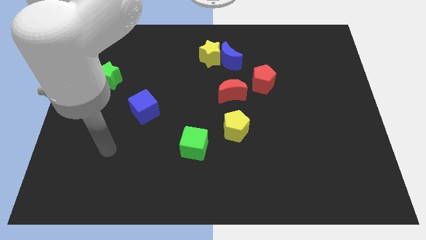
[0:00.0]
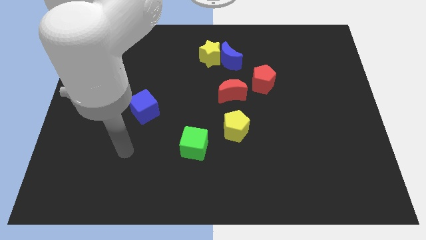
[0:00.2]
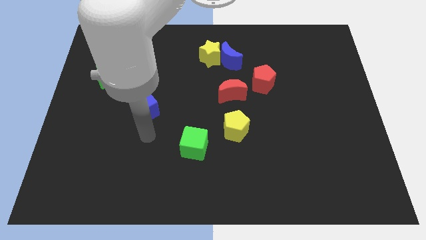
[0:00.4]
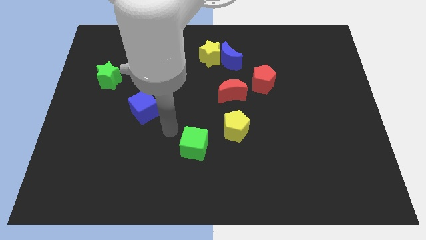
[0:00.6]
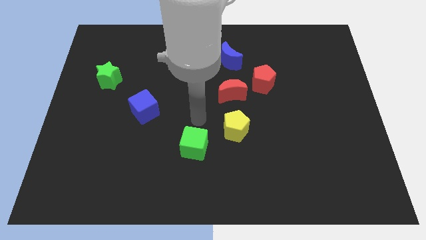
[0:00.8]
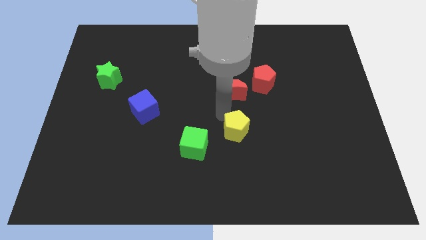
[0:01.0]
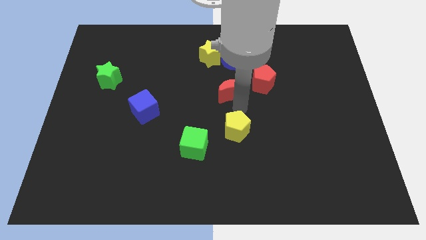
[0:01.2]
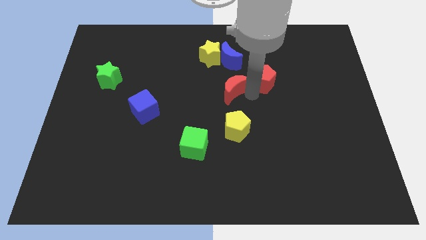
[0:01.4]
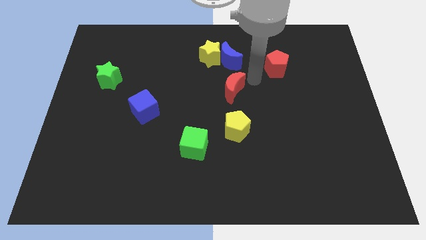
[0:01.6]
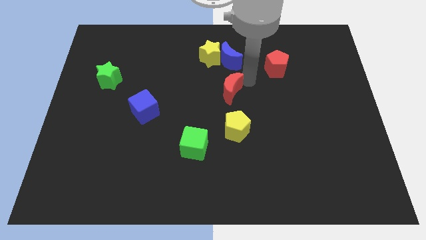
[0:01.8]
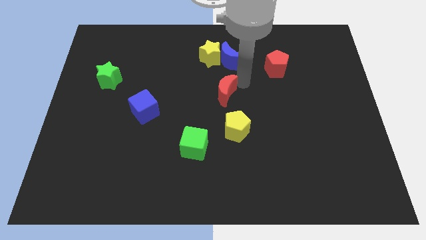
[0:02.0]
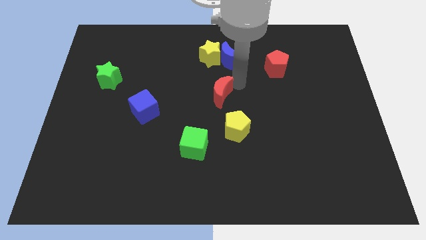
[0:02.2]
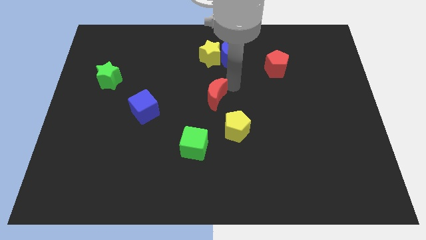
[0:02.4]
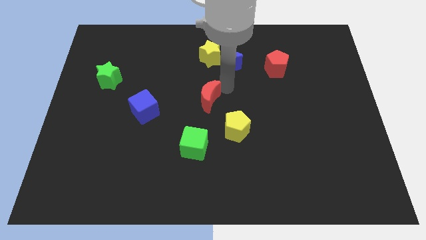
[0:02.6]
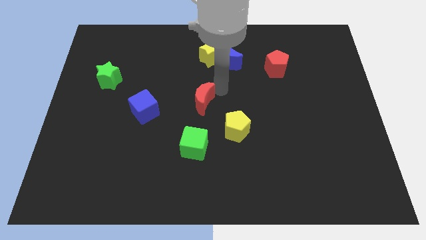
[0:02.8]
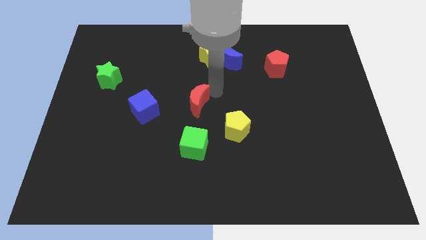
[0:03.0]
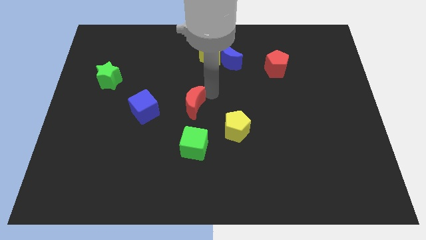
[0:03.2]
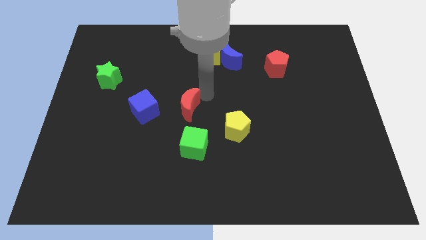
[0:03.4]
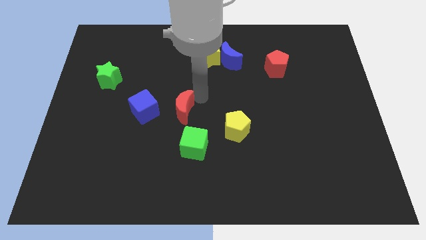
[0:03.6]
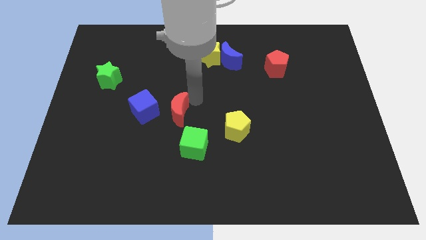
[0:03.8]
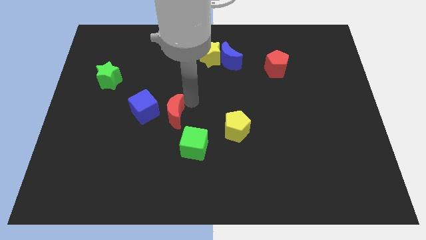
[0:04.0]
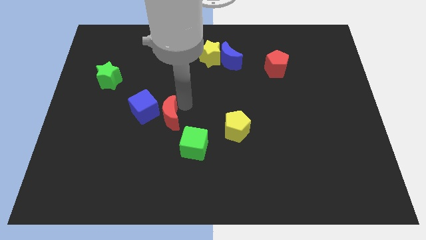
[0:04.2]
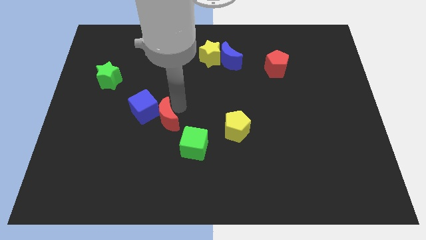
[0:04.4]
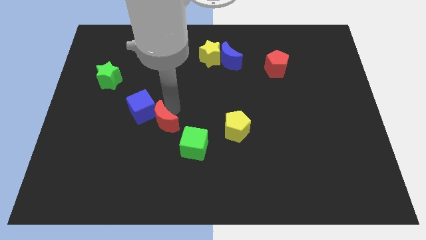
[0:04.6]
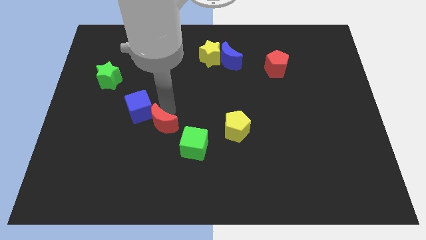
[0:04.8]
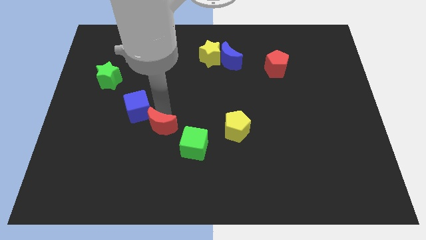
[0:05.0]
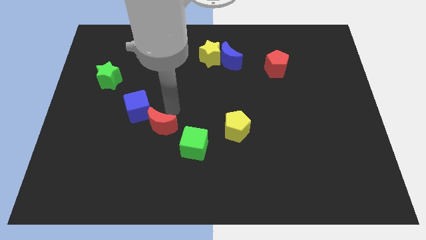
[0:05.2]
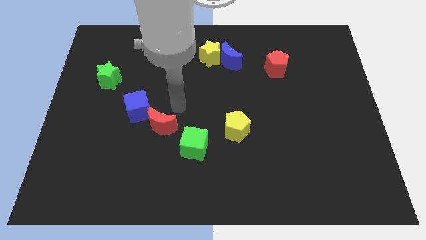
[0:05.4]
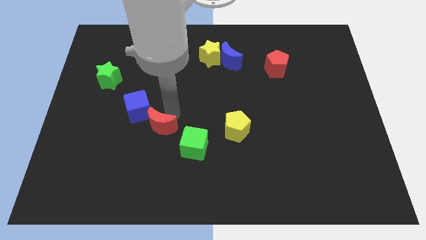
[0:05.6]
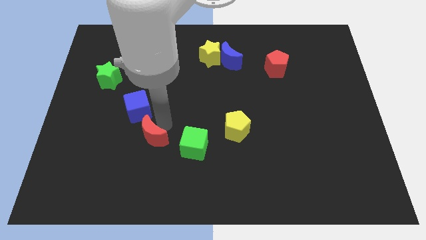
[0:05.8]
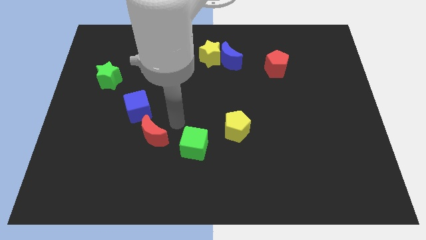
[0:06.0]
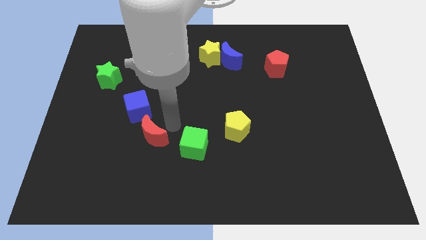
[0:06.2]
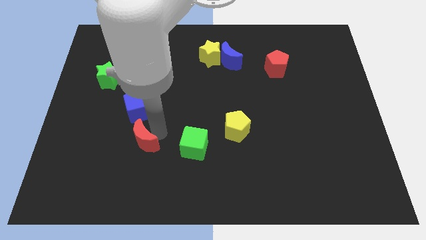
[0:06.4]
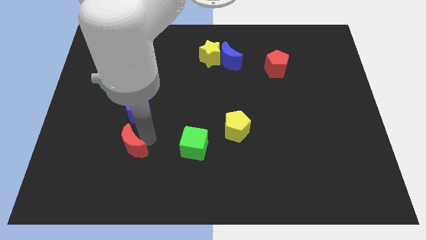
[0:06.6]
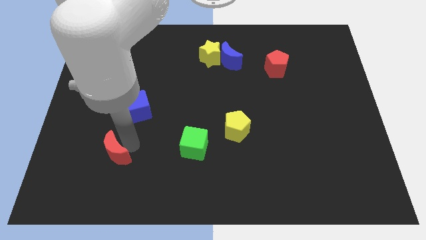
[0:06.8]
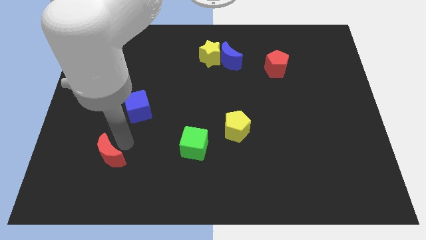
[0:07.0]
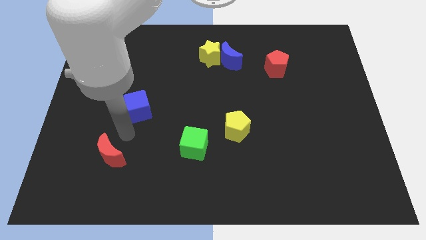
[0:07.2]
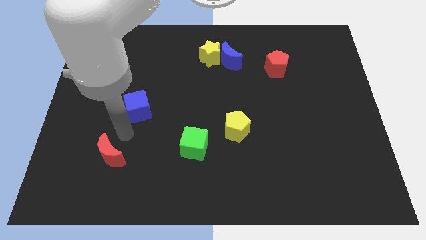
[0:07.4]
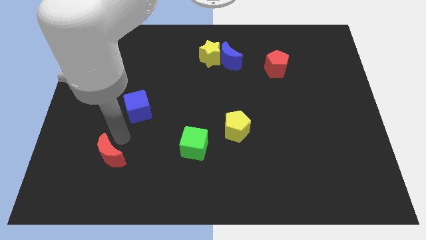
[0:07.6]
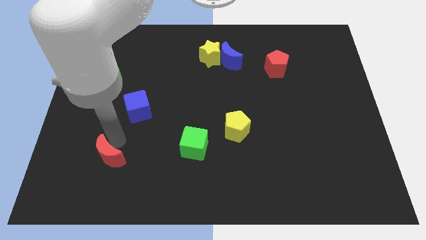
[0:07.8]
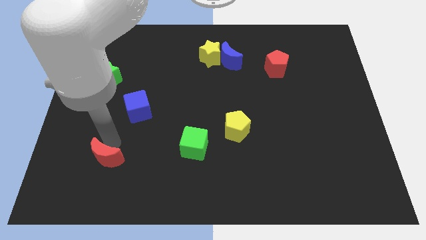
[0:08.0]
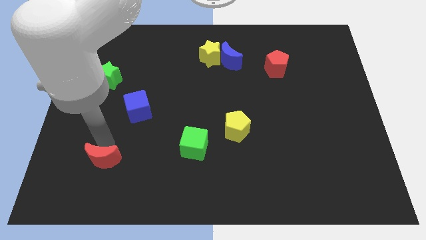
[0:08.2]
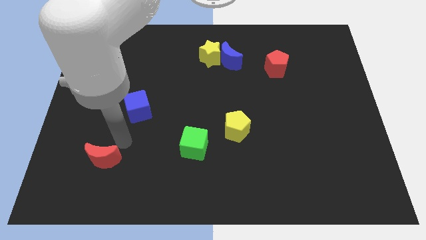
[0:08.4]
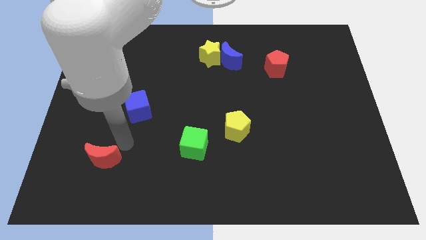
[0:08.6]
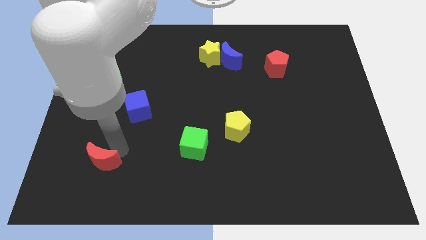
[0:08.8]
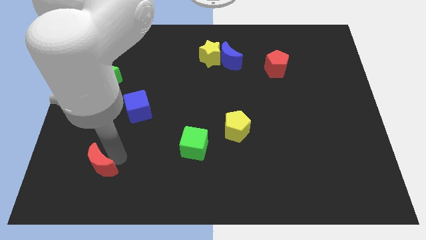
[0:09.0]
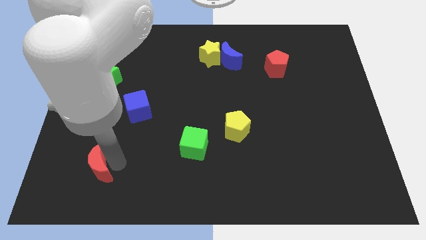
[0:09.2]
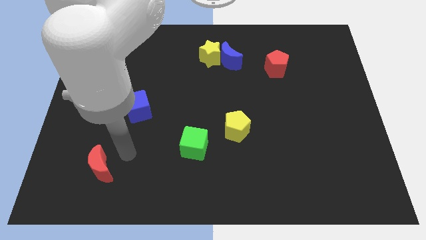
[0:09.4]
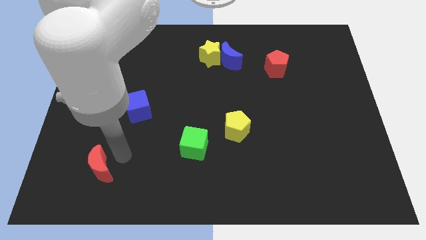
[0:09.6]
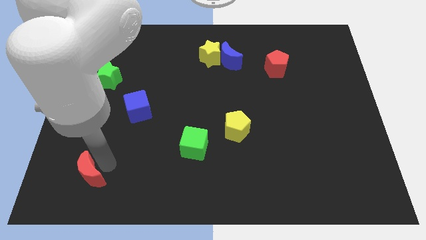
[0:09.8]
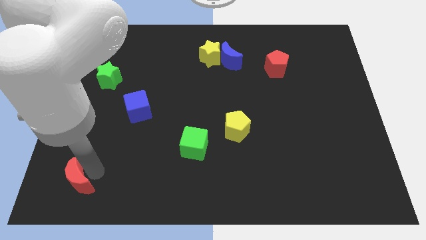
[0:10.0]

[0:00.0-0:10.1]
slide the red moon to the bottom left

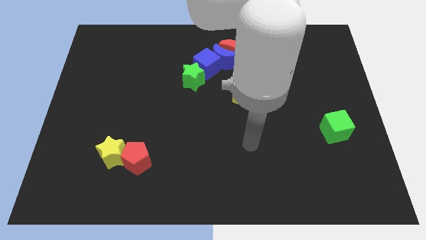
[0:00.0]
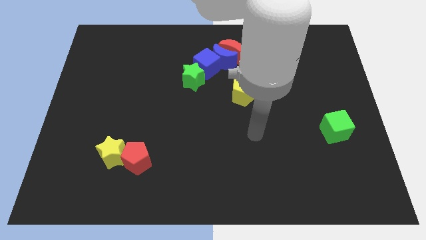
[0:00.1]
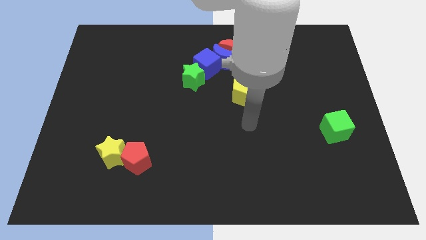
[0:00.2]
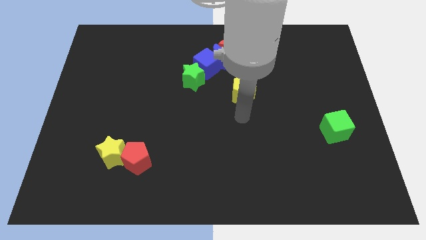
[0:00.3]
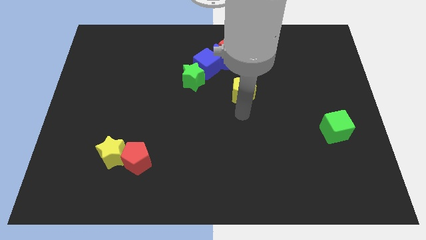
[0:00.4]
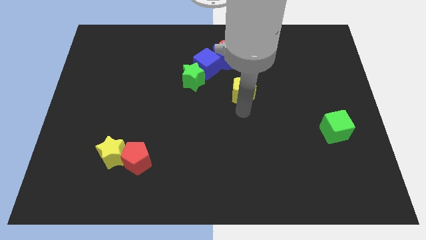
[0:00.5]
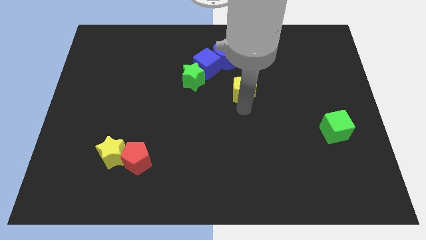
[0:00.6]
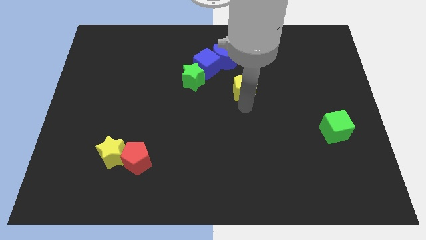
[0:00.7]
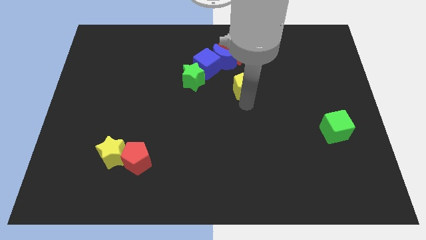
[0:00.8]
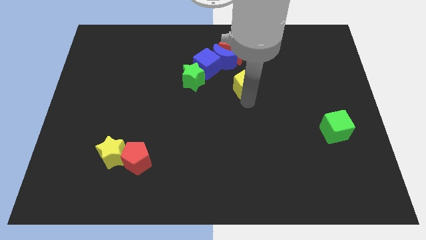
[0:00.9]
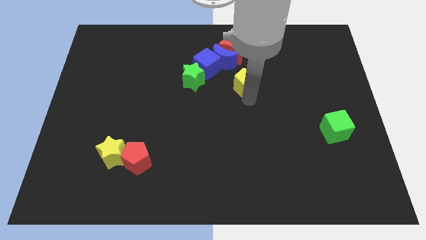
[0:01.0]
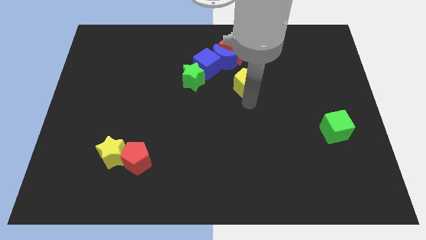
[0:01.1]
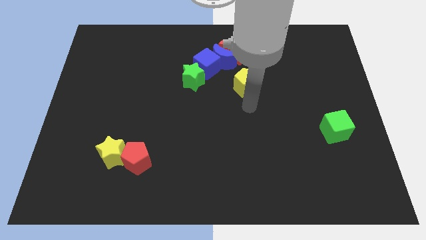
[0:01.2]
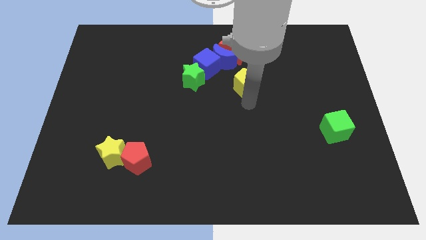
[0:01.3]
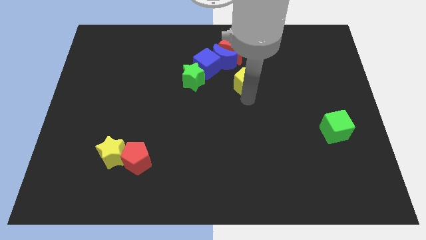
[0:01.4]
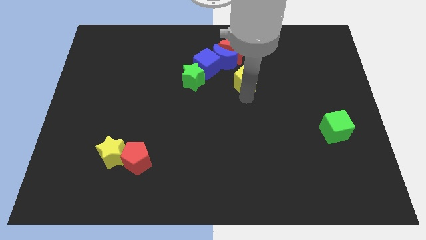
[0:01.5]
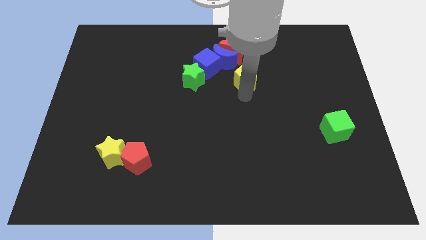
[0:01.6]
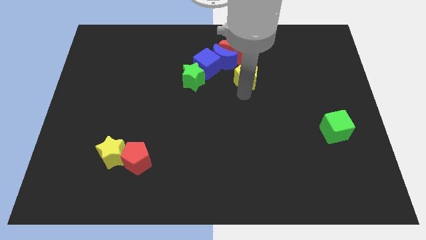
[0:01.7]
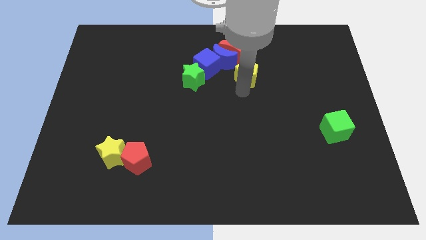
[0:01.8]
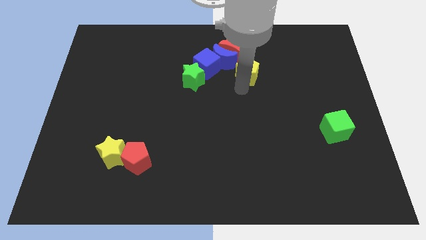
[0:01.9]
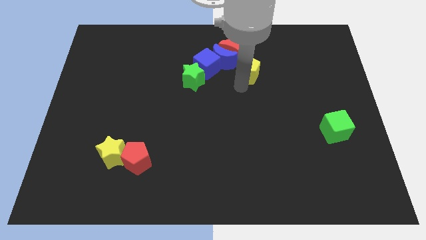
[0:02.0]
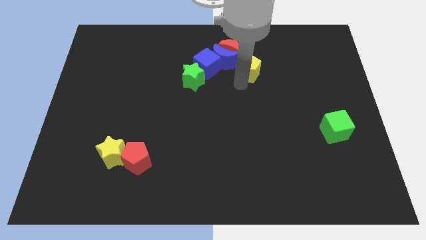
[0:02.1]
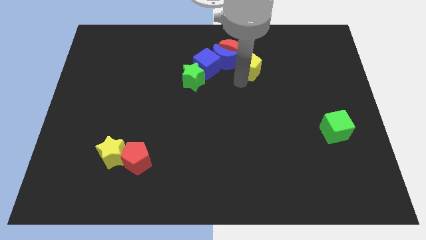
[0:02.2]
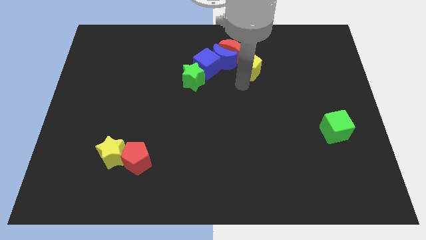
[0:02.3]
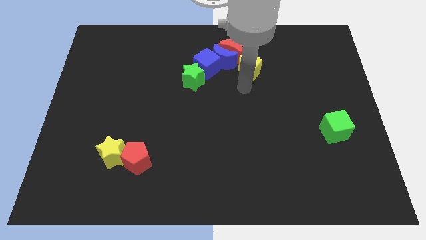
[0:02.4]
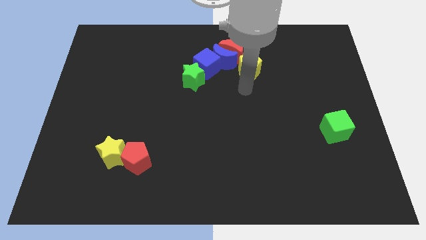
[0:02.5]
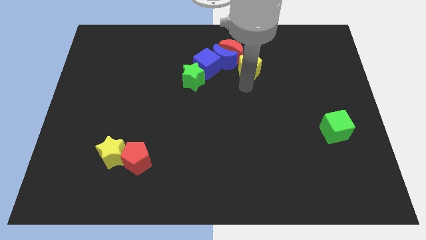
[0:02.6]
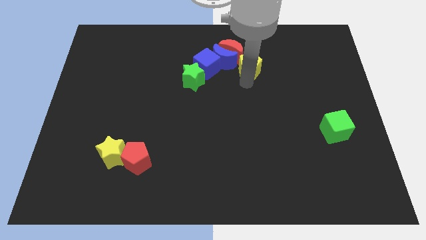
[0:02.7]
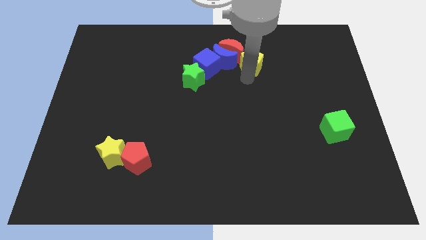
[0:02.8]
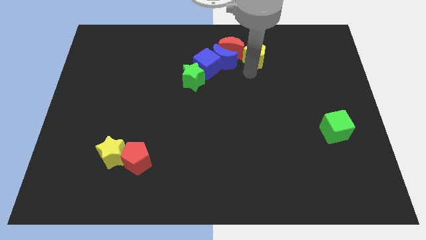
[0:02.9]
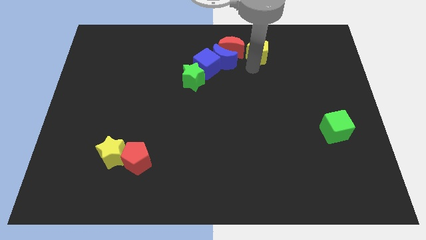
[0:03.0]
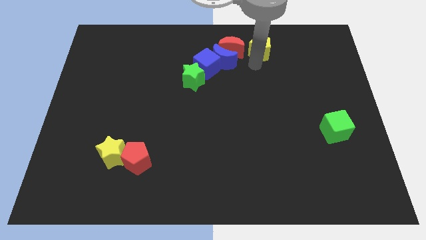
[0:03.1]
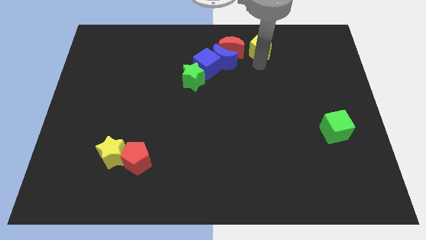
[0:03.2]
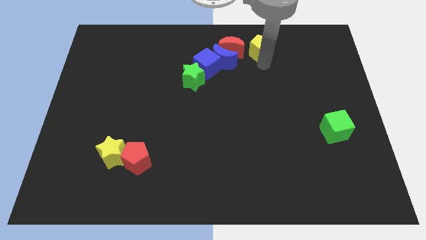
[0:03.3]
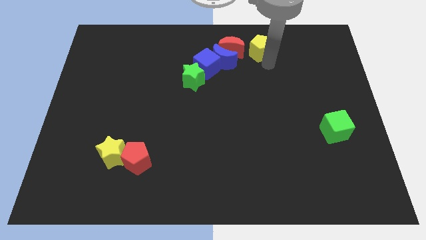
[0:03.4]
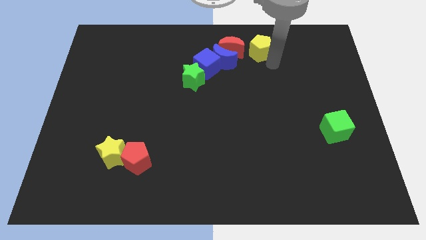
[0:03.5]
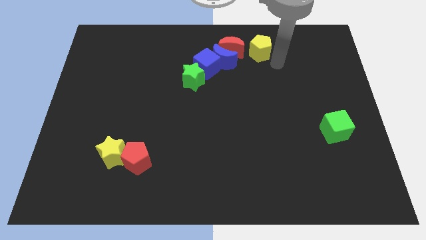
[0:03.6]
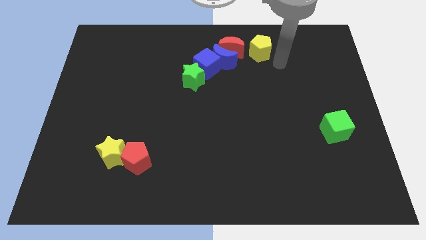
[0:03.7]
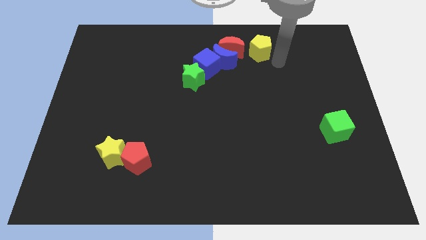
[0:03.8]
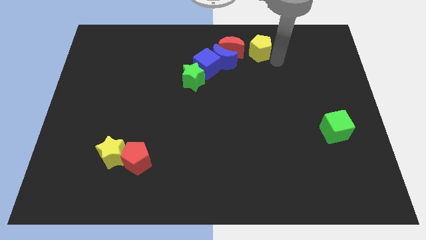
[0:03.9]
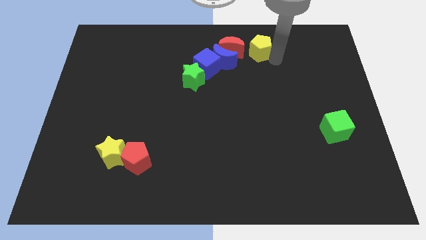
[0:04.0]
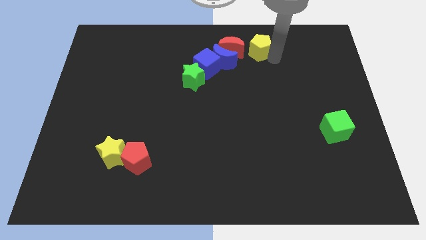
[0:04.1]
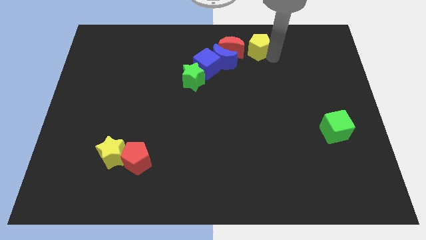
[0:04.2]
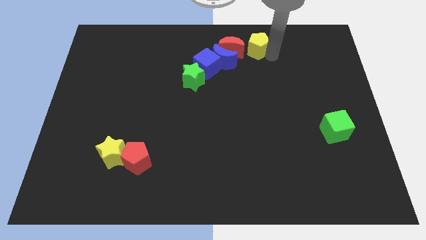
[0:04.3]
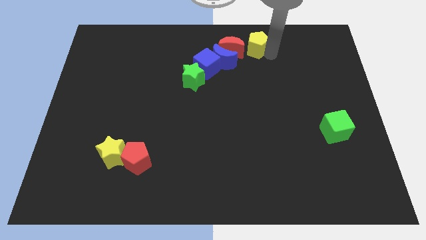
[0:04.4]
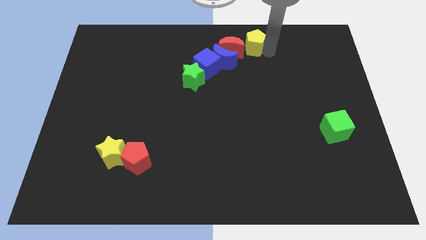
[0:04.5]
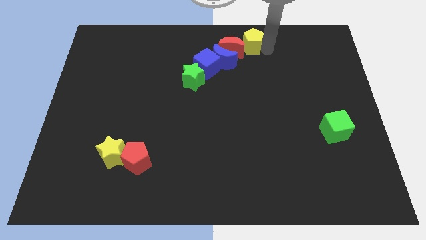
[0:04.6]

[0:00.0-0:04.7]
slide the yellow pentagon to the towards your base
